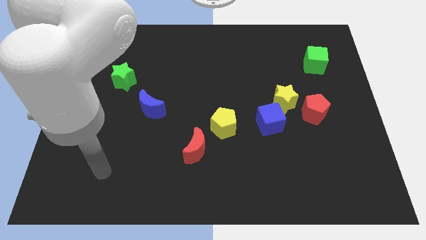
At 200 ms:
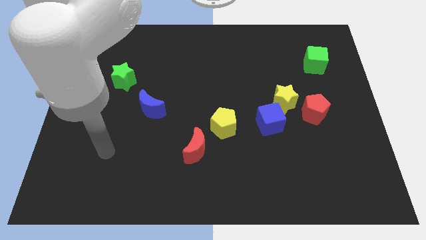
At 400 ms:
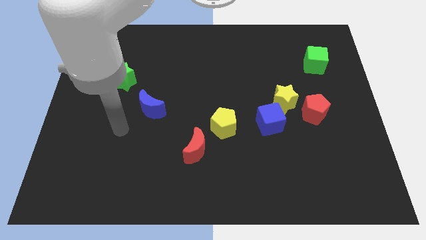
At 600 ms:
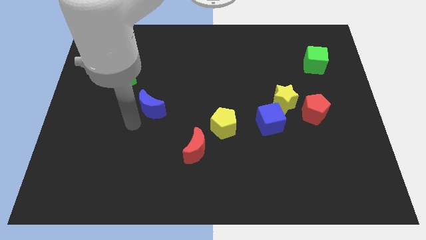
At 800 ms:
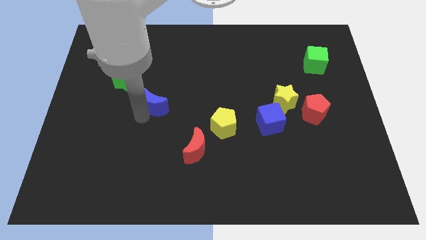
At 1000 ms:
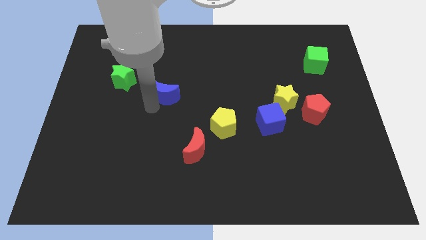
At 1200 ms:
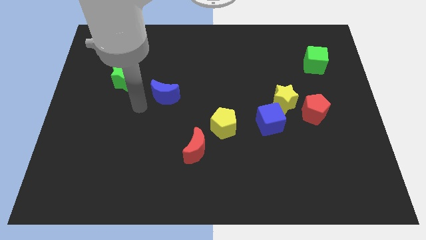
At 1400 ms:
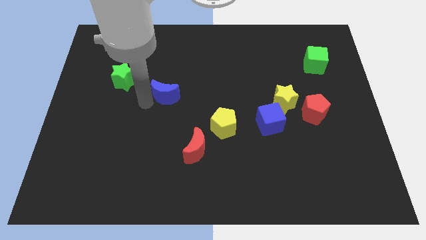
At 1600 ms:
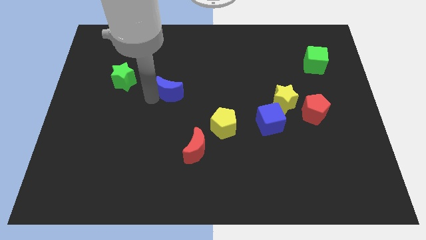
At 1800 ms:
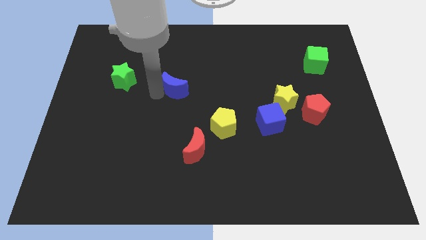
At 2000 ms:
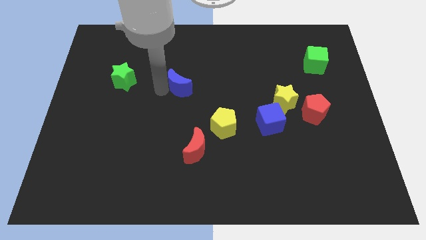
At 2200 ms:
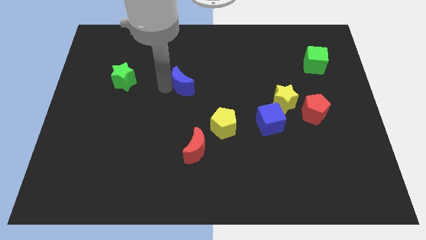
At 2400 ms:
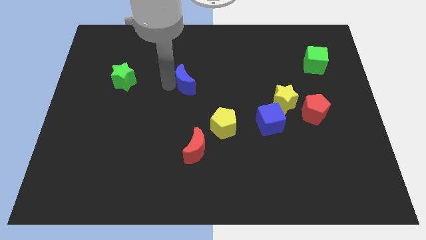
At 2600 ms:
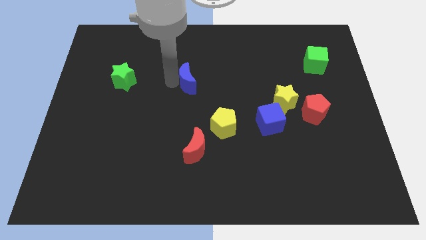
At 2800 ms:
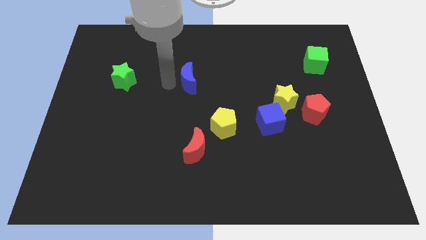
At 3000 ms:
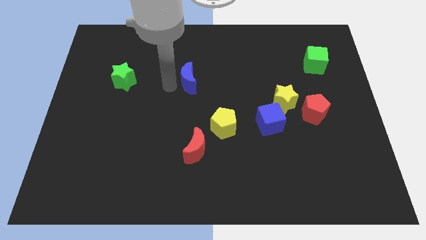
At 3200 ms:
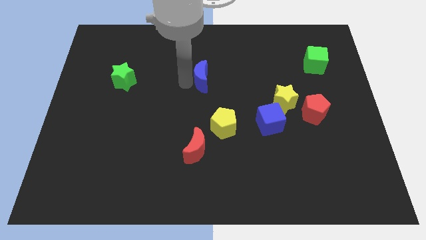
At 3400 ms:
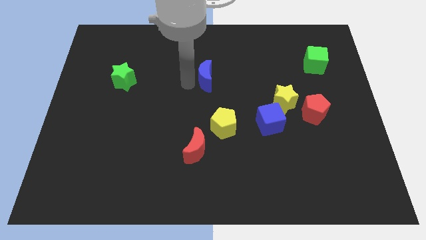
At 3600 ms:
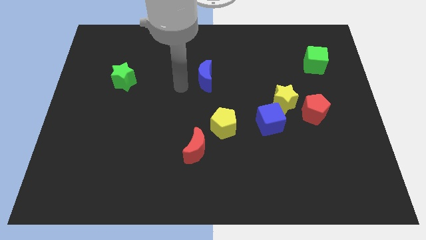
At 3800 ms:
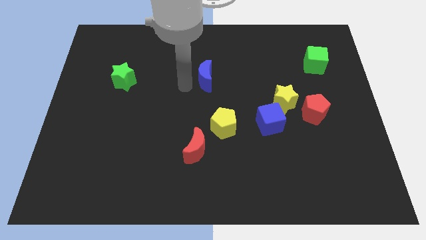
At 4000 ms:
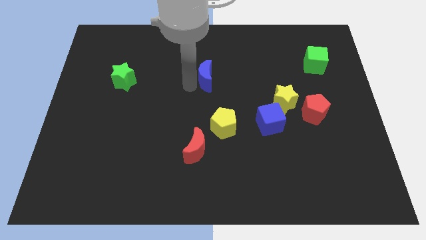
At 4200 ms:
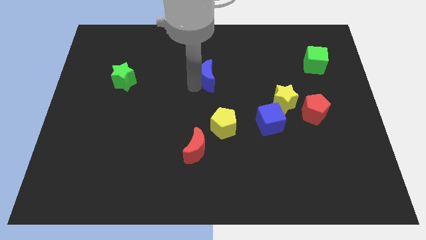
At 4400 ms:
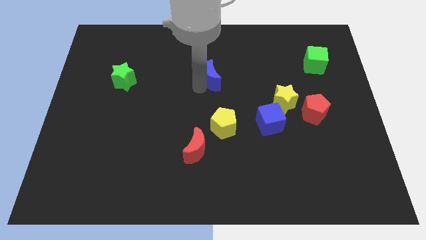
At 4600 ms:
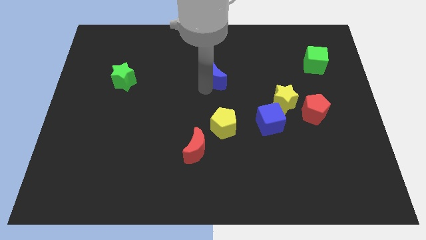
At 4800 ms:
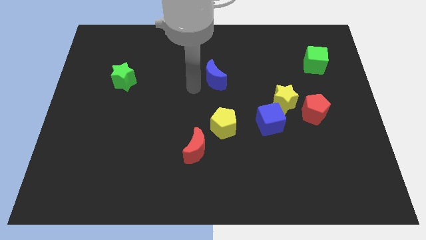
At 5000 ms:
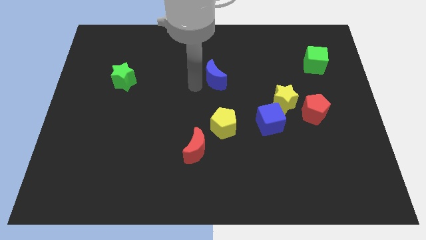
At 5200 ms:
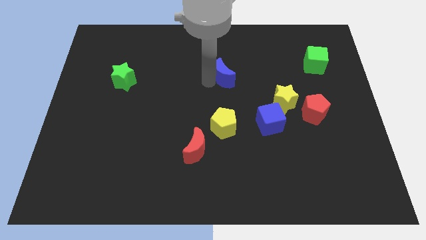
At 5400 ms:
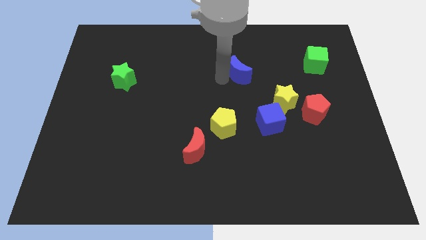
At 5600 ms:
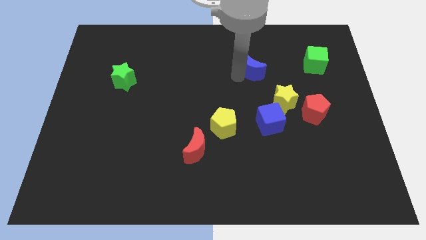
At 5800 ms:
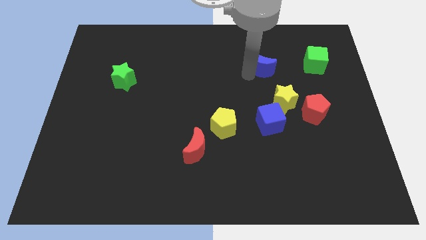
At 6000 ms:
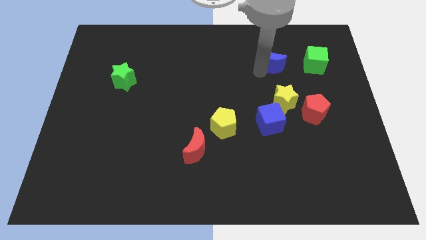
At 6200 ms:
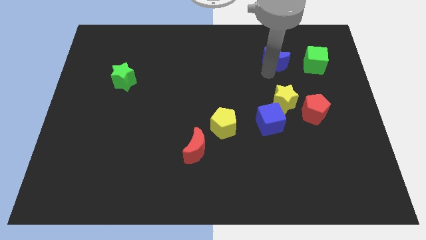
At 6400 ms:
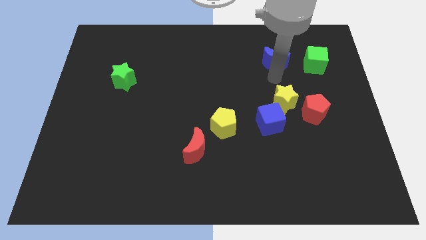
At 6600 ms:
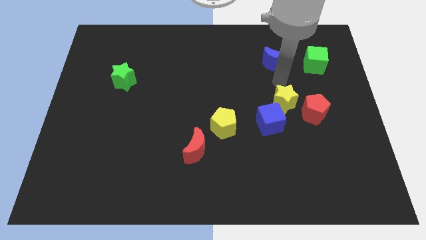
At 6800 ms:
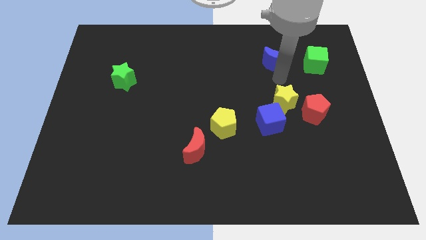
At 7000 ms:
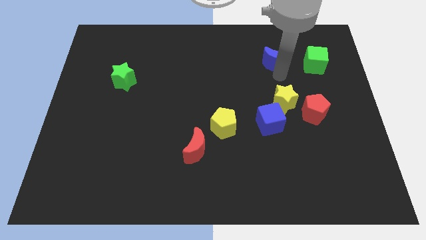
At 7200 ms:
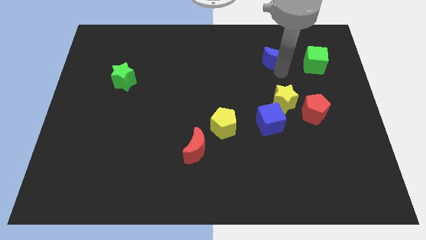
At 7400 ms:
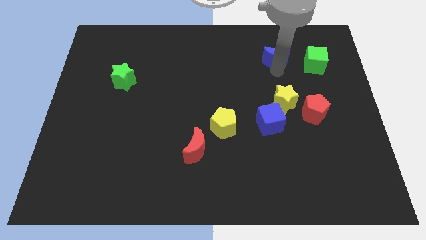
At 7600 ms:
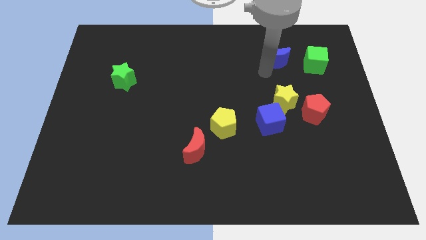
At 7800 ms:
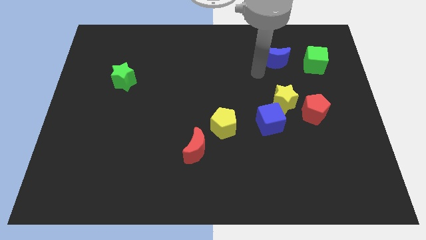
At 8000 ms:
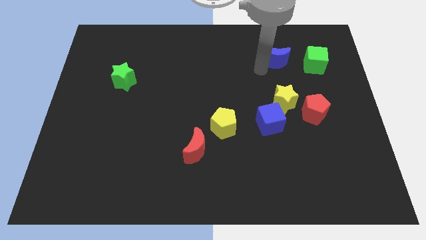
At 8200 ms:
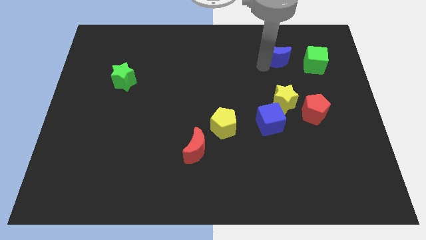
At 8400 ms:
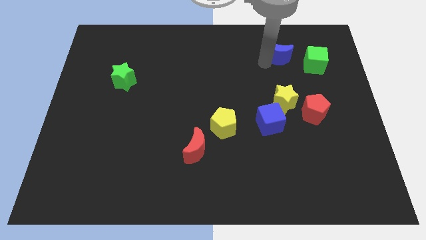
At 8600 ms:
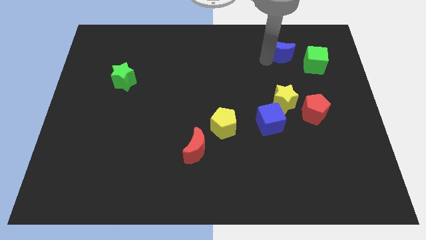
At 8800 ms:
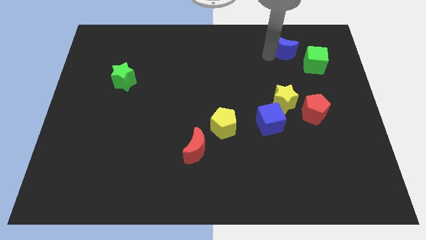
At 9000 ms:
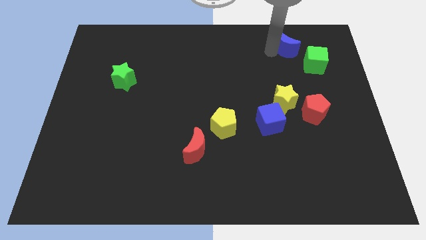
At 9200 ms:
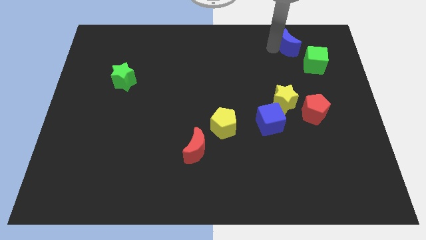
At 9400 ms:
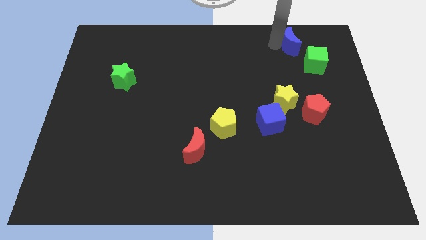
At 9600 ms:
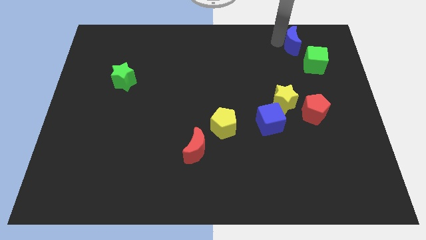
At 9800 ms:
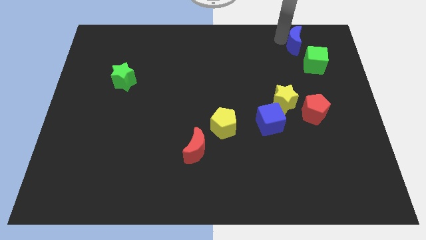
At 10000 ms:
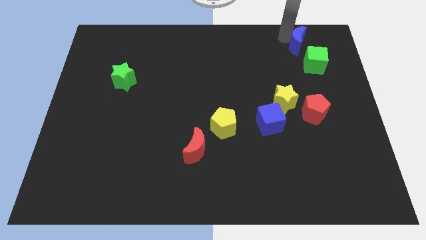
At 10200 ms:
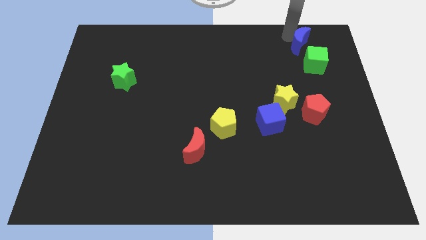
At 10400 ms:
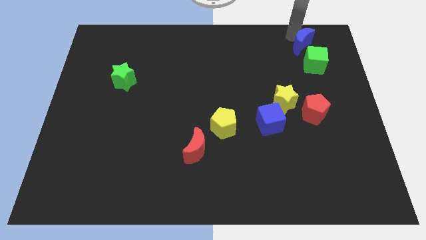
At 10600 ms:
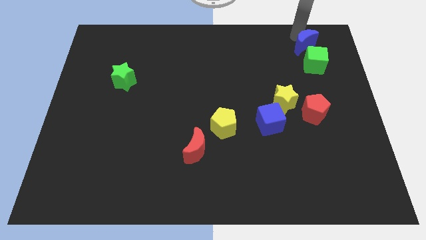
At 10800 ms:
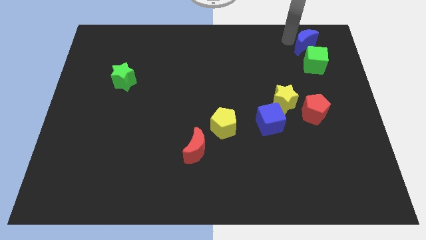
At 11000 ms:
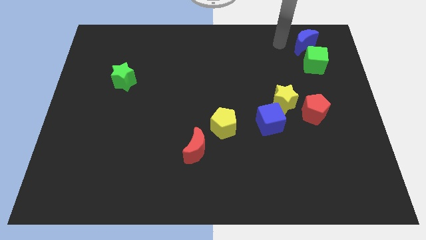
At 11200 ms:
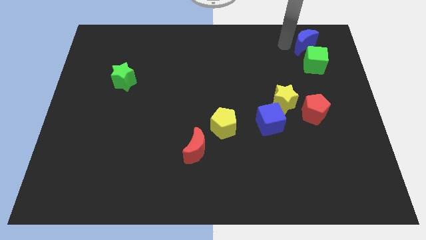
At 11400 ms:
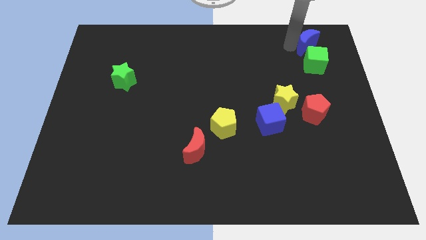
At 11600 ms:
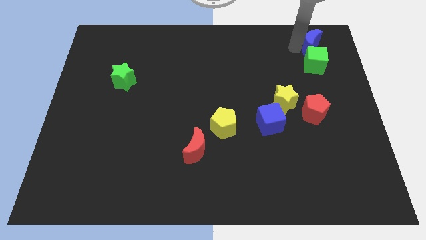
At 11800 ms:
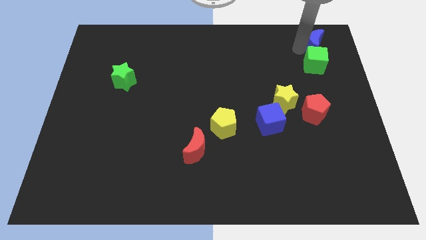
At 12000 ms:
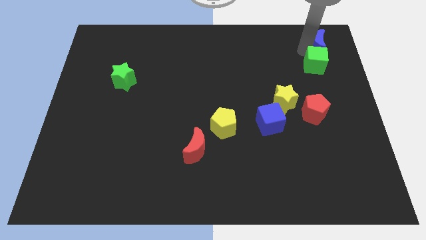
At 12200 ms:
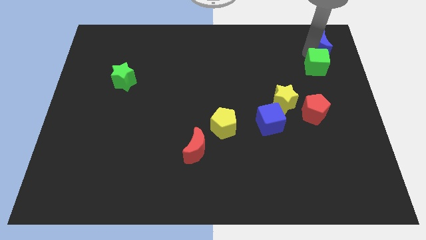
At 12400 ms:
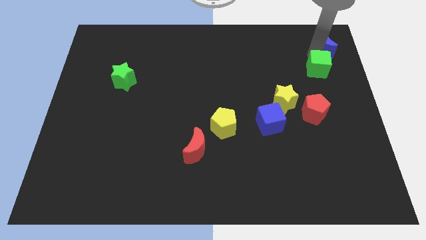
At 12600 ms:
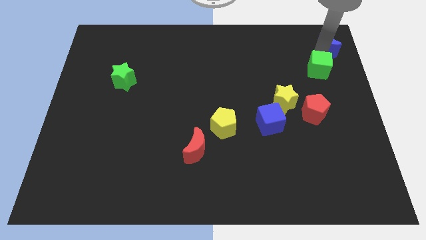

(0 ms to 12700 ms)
push the blue moon to the upper right corner
